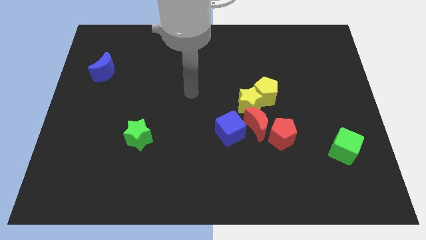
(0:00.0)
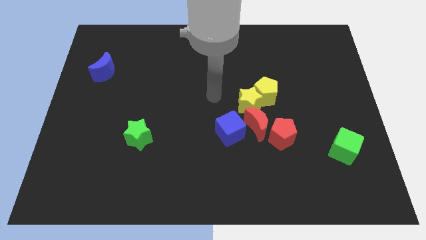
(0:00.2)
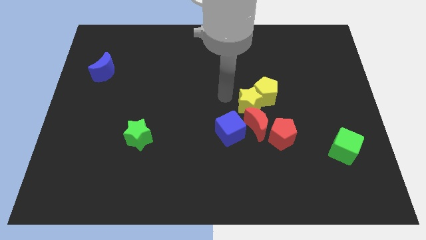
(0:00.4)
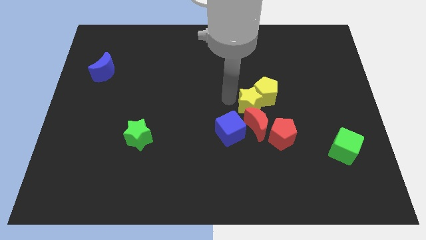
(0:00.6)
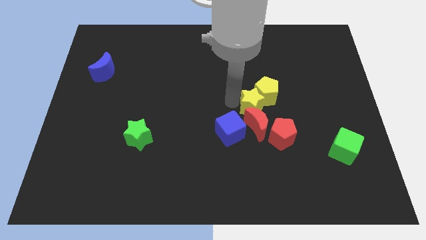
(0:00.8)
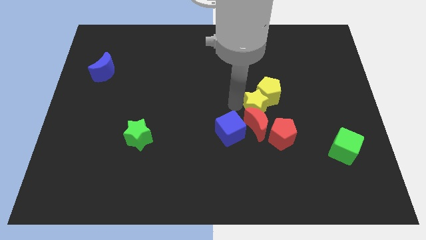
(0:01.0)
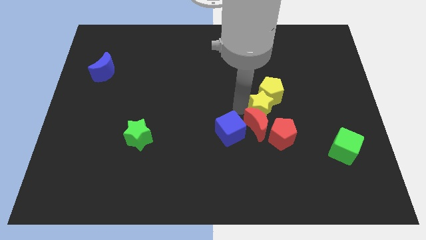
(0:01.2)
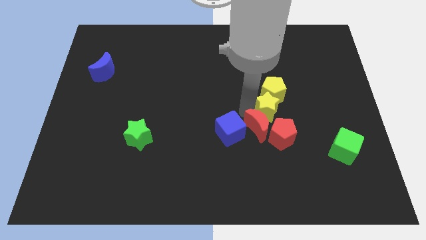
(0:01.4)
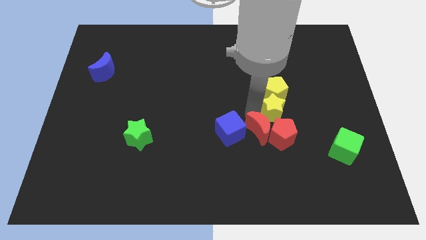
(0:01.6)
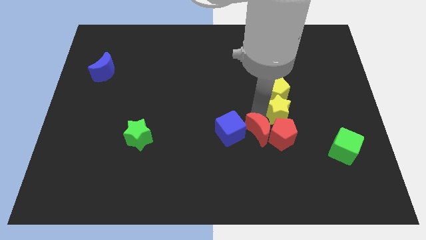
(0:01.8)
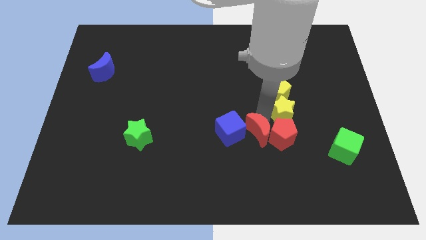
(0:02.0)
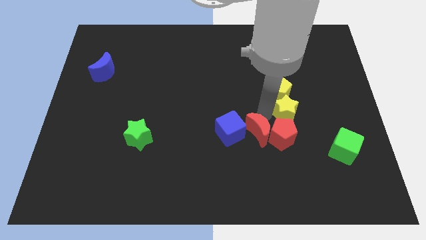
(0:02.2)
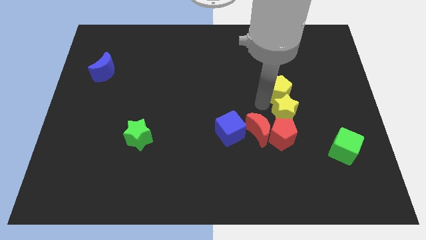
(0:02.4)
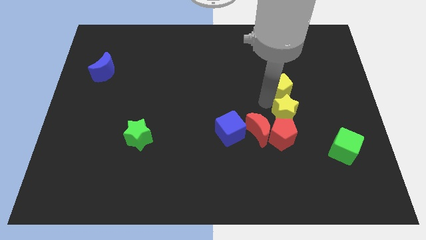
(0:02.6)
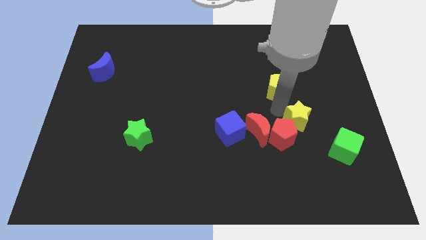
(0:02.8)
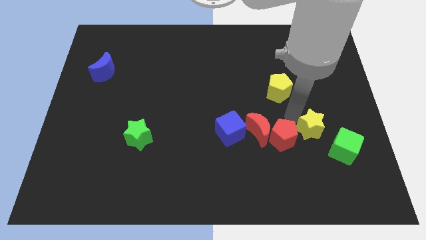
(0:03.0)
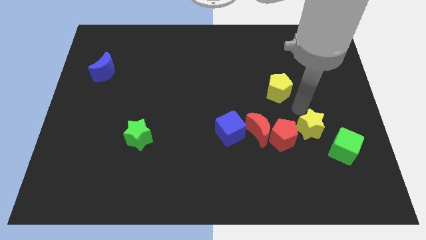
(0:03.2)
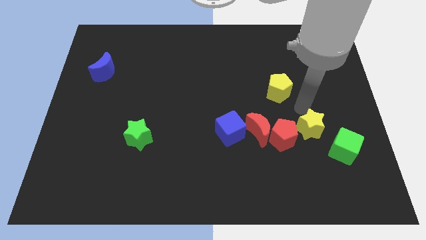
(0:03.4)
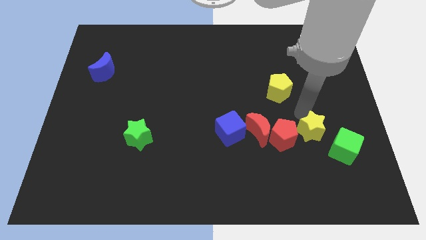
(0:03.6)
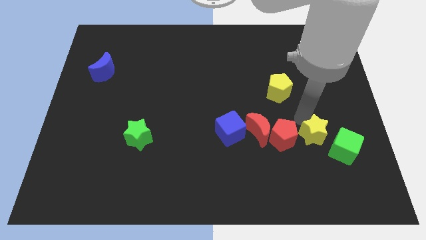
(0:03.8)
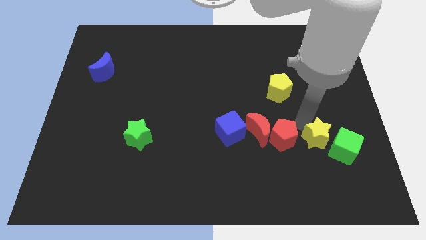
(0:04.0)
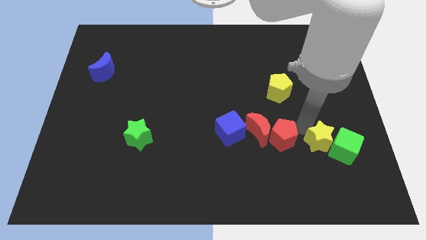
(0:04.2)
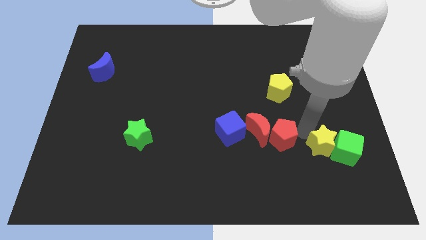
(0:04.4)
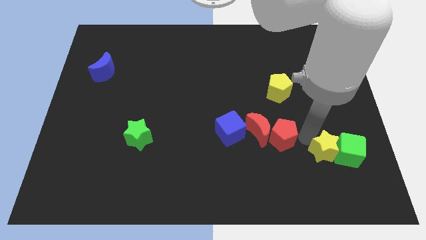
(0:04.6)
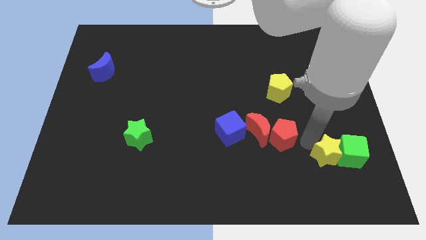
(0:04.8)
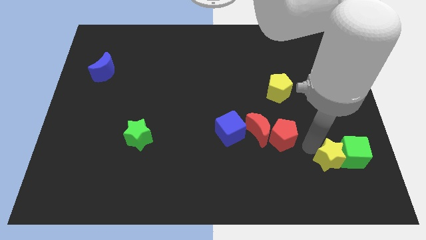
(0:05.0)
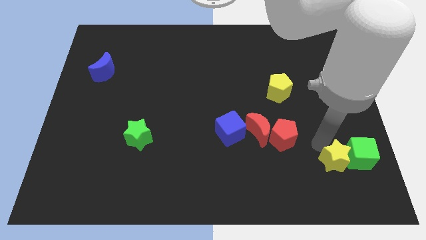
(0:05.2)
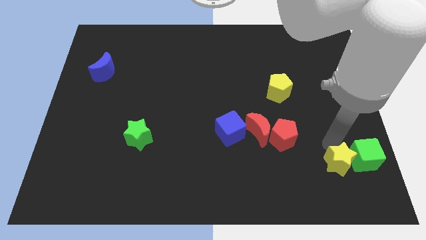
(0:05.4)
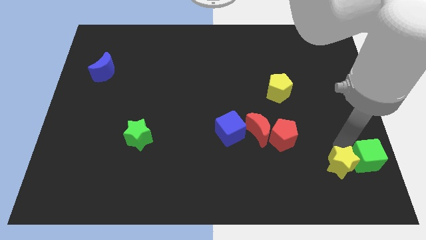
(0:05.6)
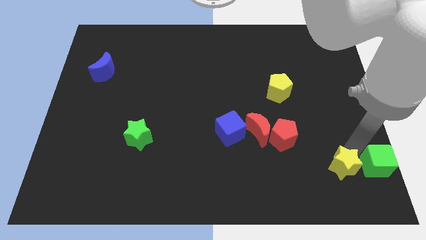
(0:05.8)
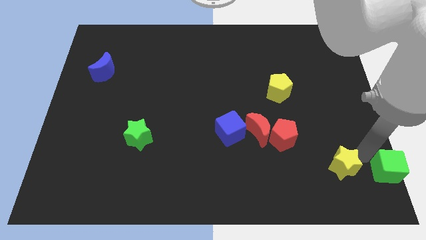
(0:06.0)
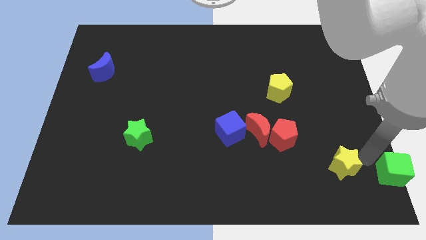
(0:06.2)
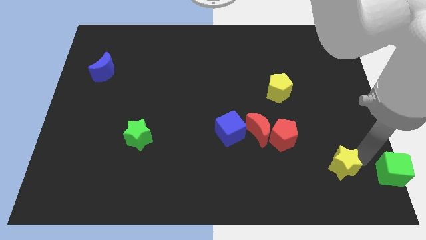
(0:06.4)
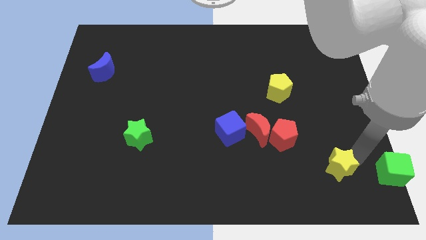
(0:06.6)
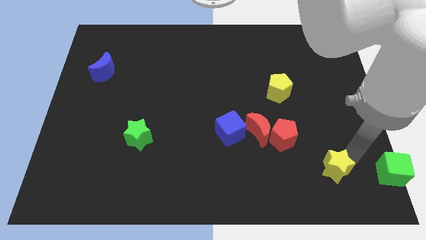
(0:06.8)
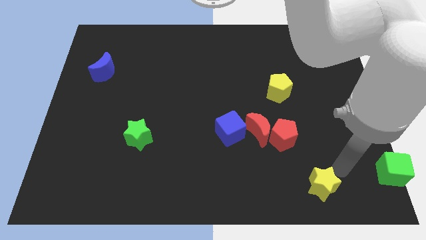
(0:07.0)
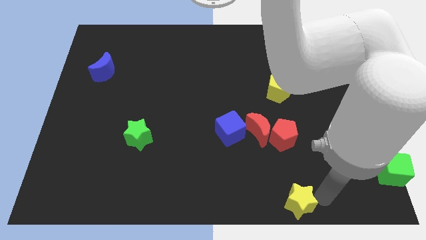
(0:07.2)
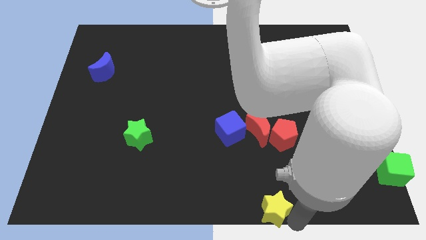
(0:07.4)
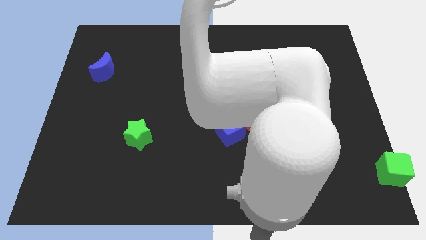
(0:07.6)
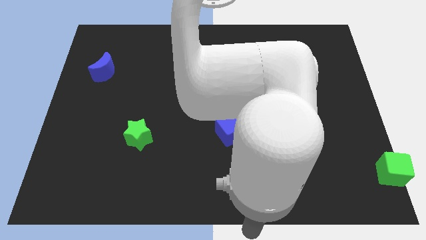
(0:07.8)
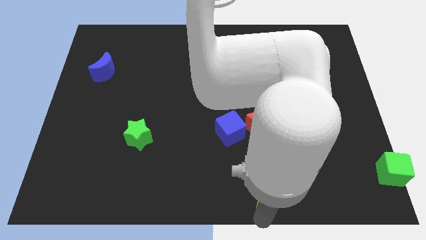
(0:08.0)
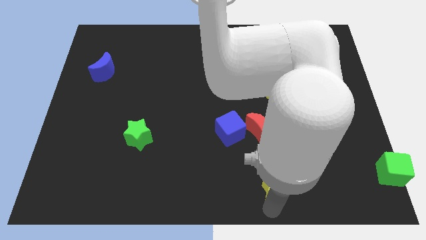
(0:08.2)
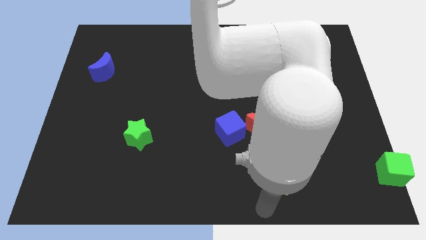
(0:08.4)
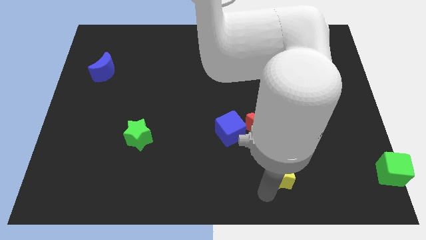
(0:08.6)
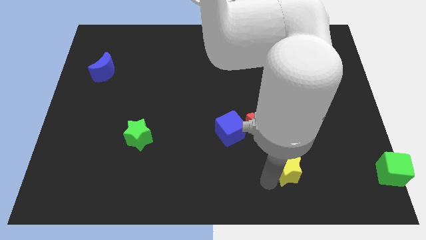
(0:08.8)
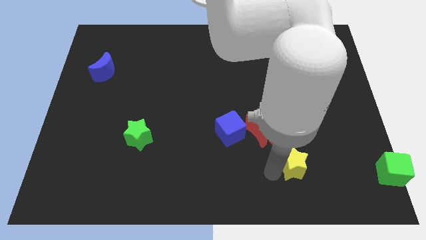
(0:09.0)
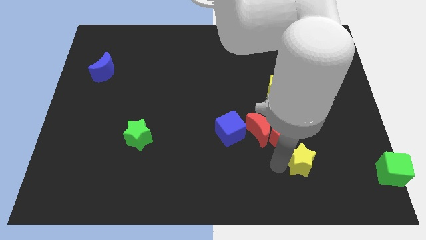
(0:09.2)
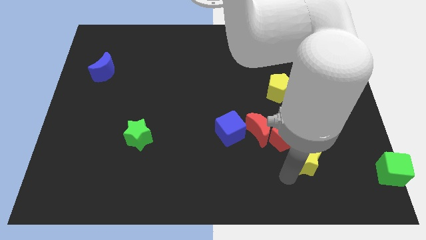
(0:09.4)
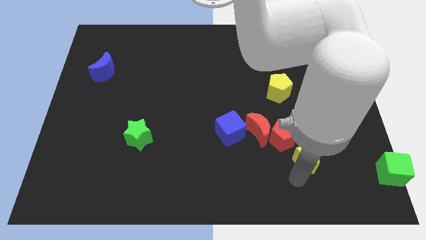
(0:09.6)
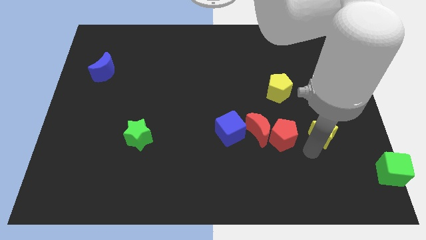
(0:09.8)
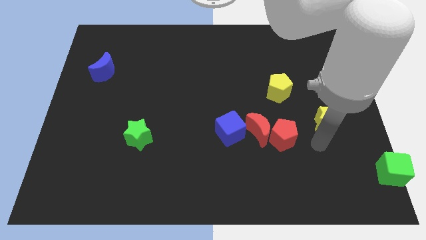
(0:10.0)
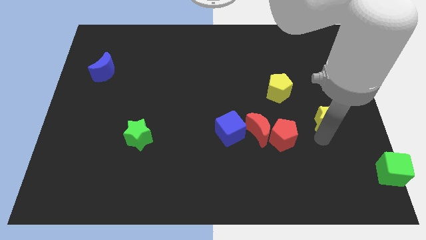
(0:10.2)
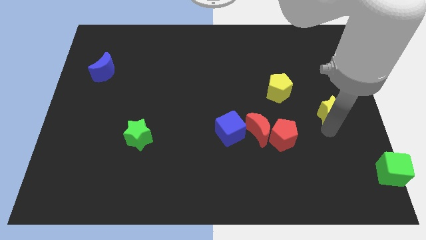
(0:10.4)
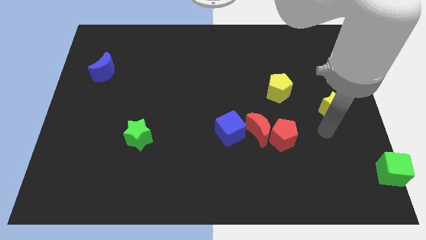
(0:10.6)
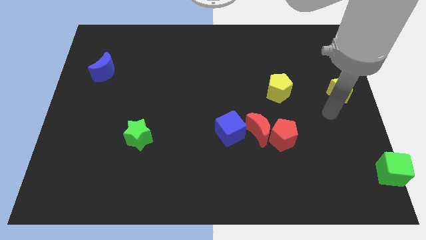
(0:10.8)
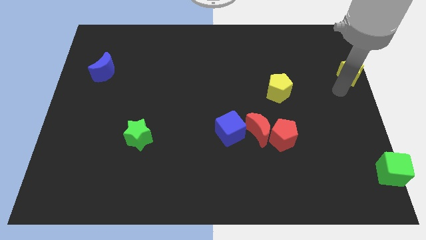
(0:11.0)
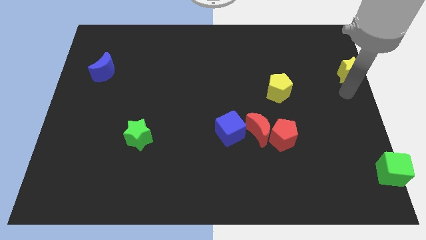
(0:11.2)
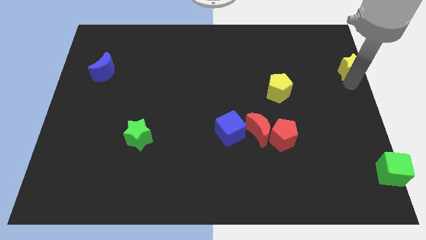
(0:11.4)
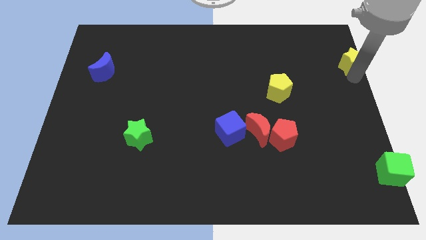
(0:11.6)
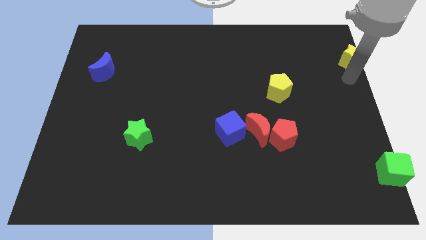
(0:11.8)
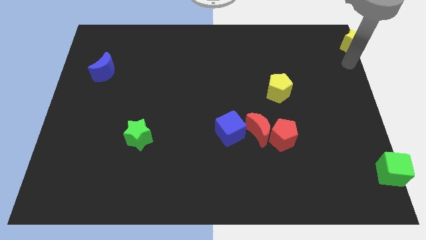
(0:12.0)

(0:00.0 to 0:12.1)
slide the yellow star to the top right of the board

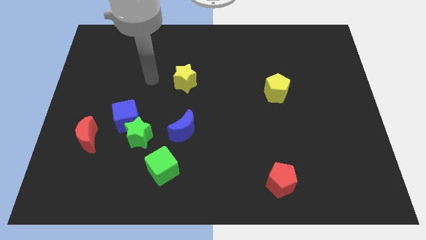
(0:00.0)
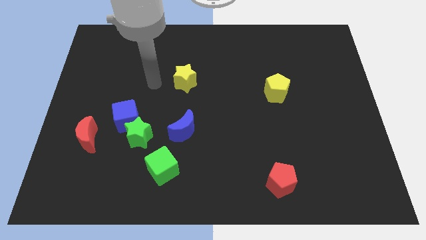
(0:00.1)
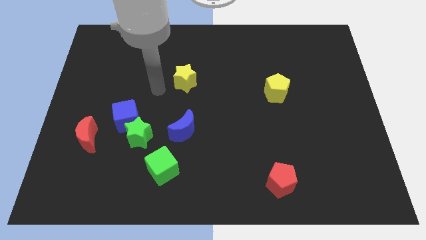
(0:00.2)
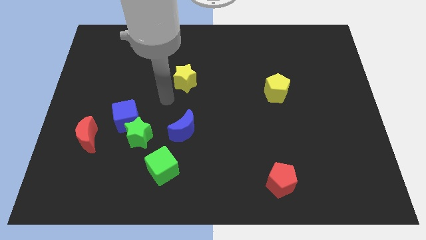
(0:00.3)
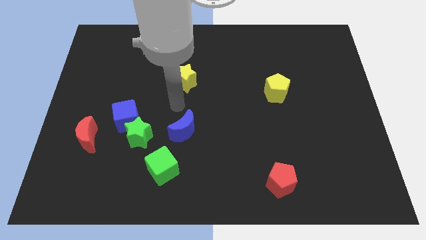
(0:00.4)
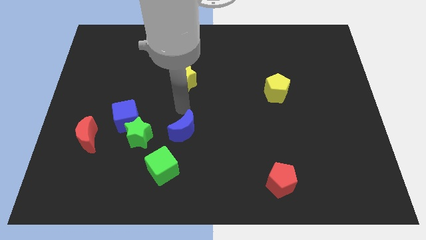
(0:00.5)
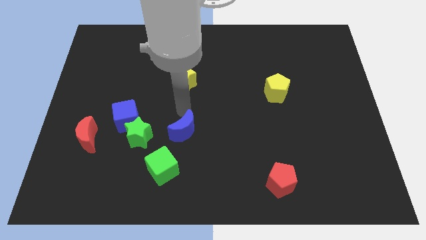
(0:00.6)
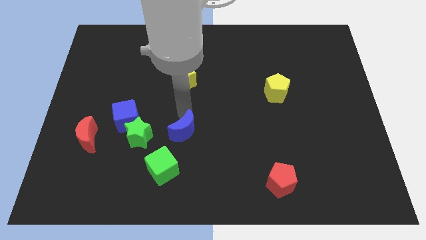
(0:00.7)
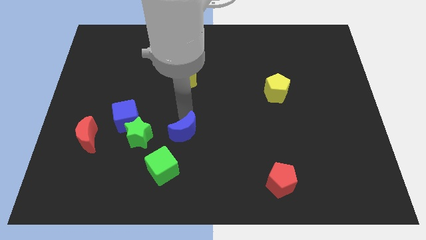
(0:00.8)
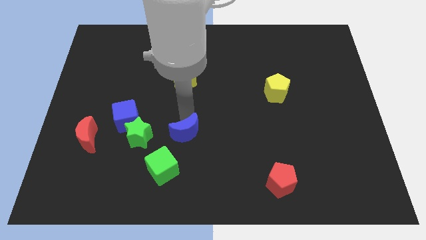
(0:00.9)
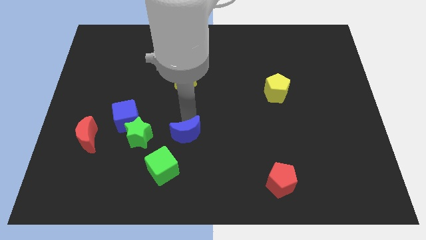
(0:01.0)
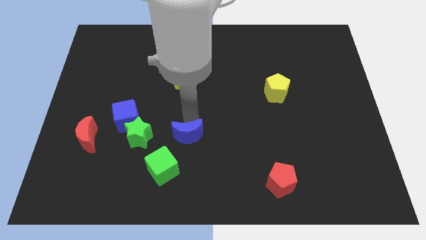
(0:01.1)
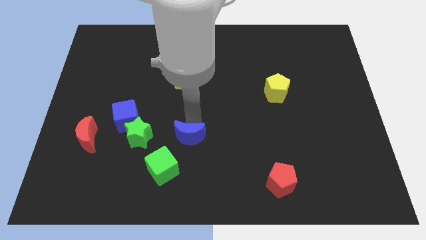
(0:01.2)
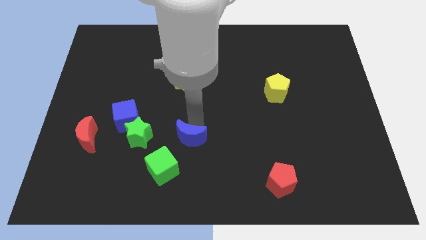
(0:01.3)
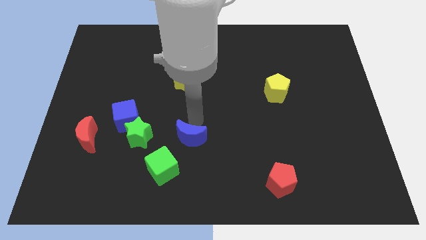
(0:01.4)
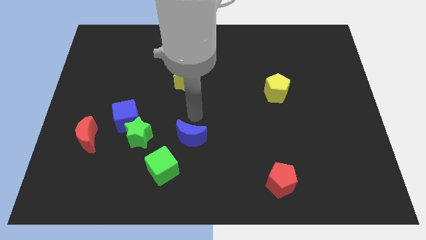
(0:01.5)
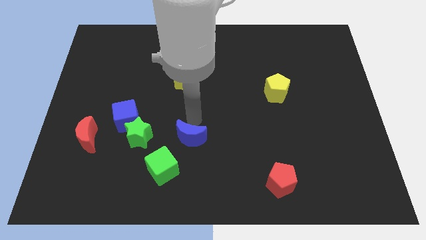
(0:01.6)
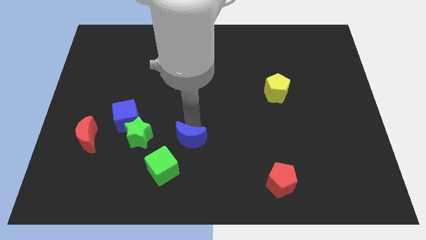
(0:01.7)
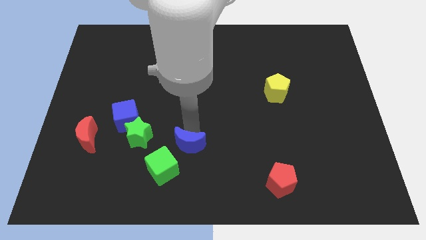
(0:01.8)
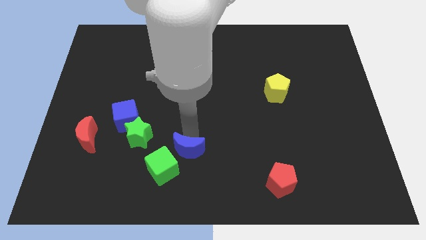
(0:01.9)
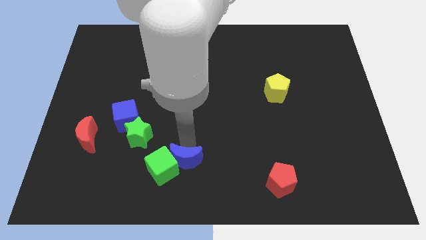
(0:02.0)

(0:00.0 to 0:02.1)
push the blue moon to the bottom
